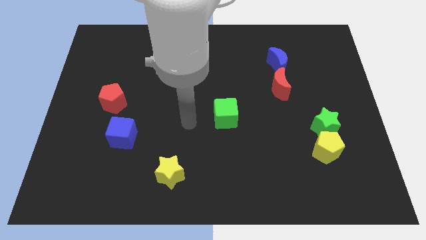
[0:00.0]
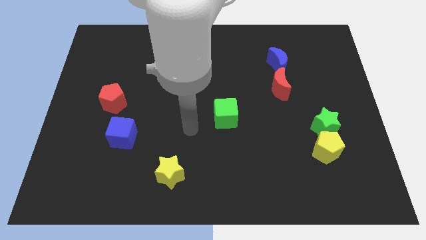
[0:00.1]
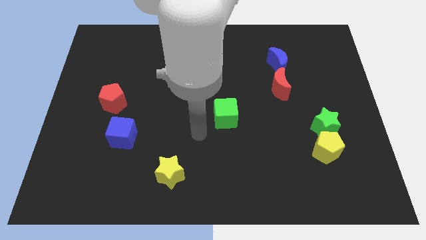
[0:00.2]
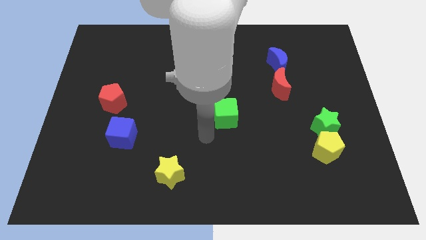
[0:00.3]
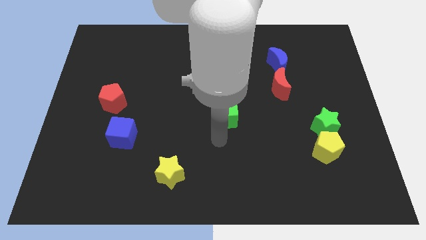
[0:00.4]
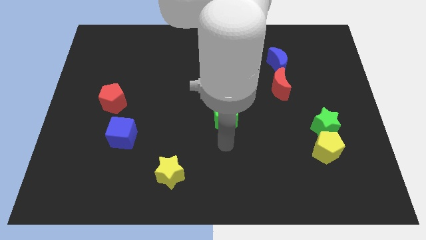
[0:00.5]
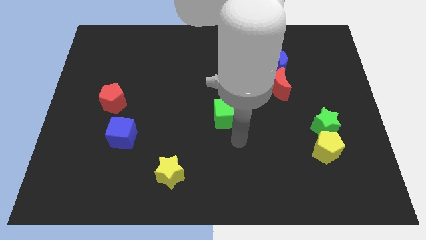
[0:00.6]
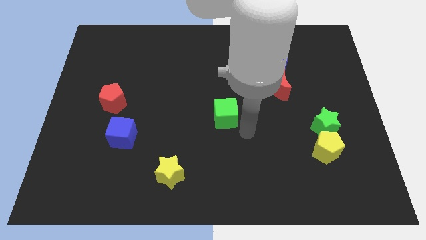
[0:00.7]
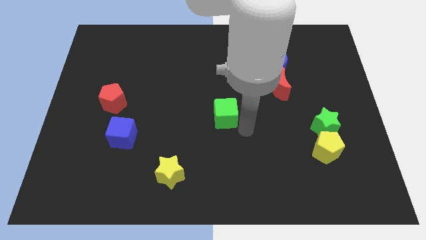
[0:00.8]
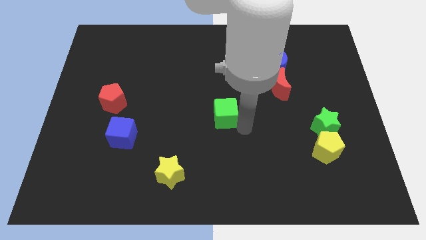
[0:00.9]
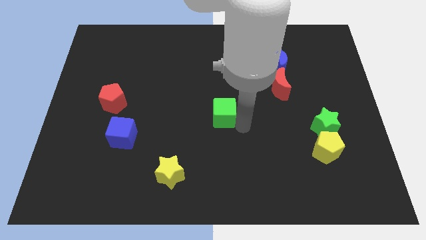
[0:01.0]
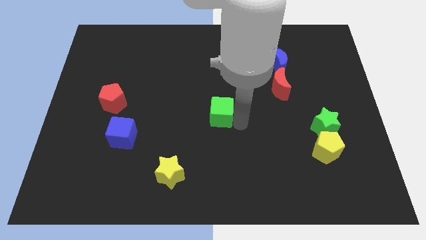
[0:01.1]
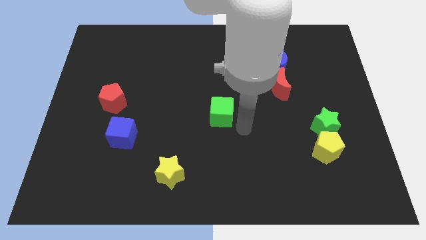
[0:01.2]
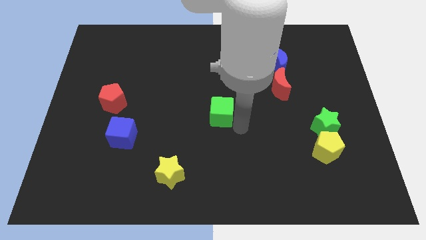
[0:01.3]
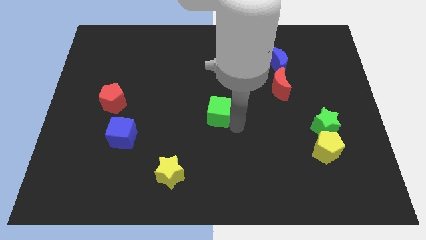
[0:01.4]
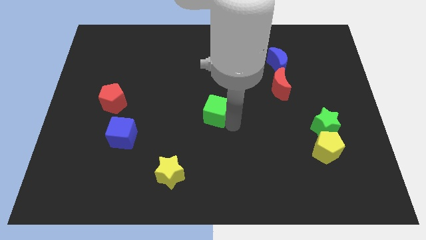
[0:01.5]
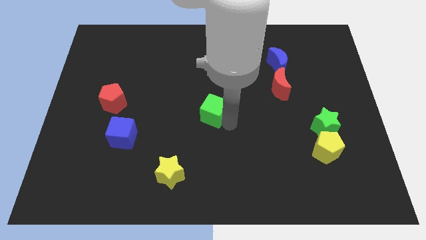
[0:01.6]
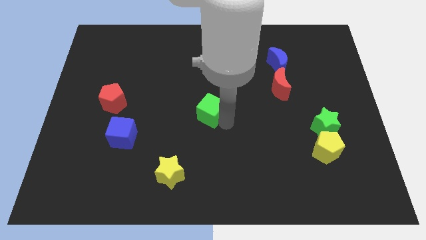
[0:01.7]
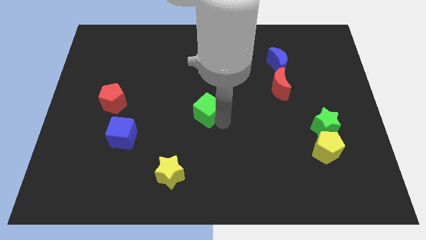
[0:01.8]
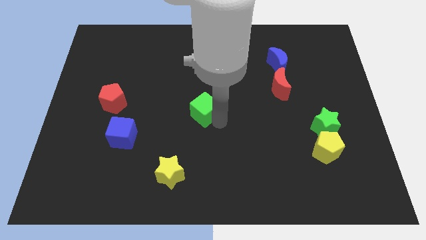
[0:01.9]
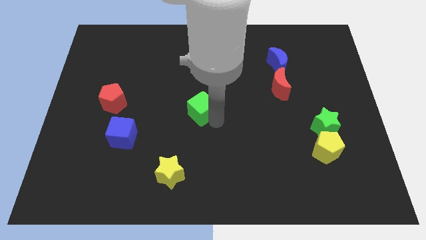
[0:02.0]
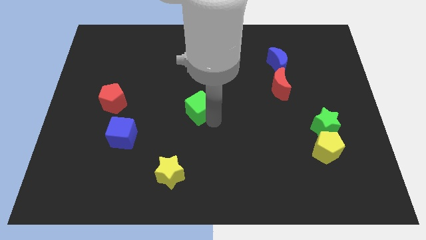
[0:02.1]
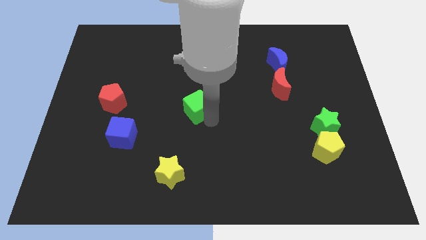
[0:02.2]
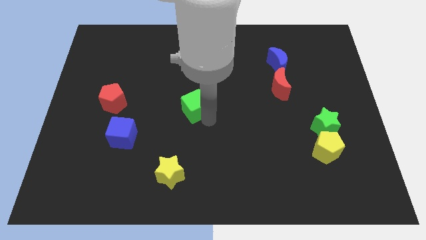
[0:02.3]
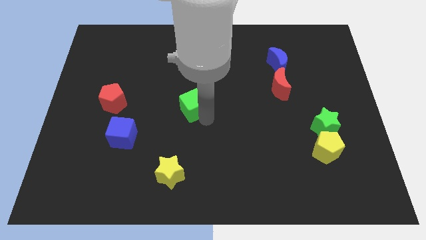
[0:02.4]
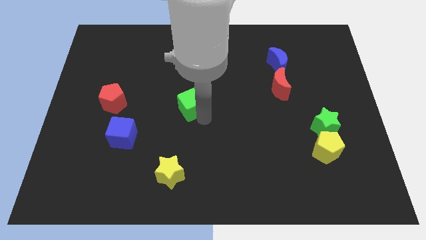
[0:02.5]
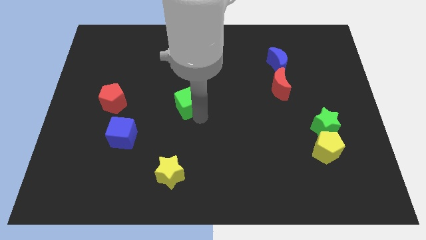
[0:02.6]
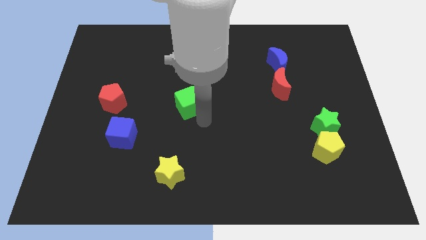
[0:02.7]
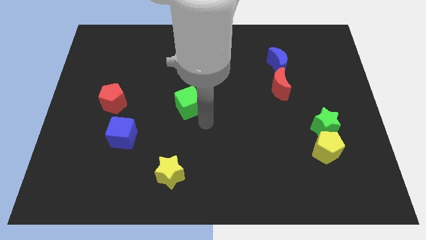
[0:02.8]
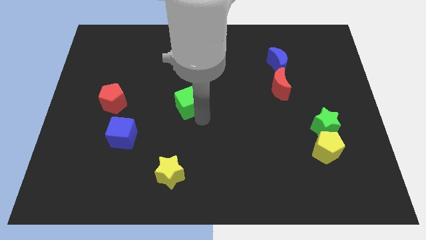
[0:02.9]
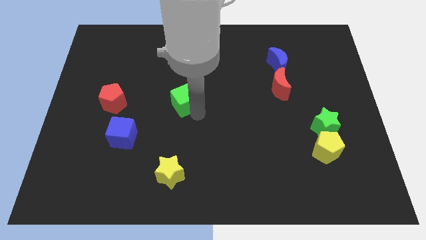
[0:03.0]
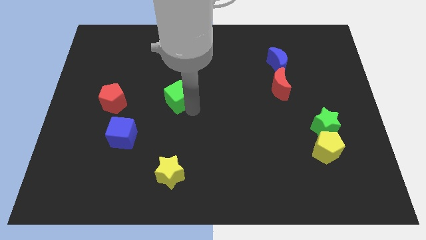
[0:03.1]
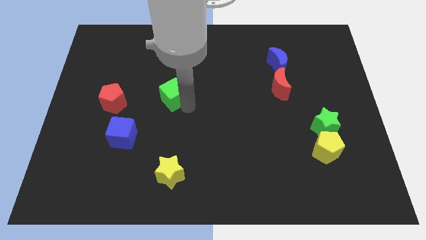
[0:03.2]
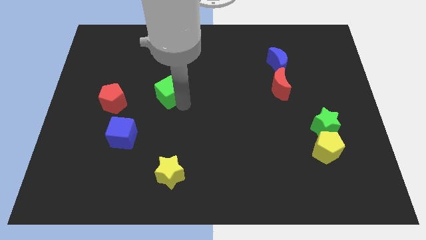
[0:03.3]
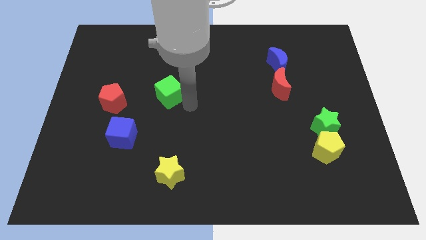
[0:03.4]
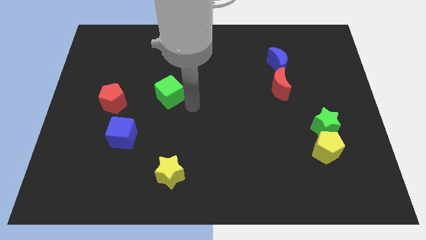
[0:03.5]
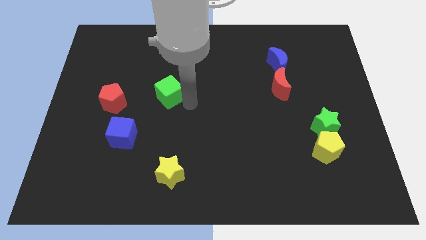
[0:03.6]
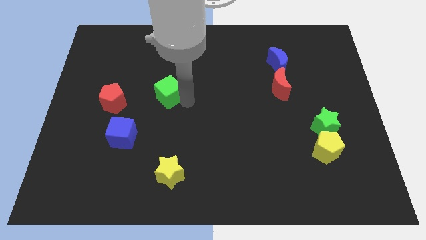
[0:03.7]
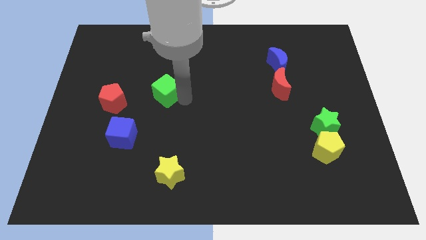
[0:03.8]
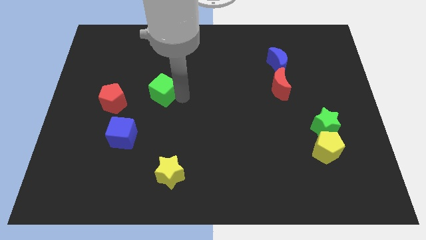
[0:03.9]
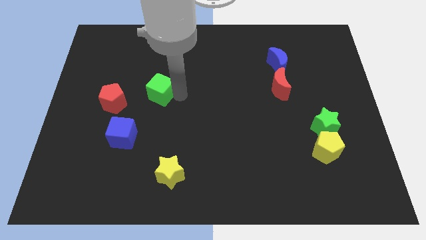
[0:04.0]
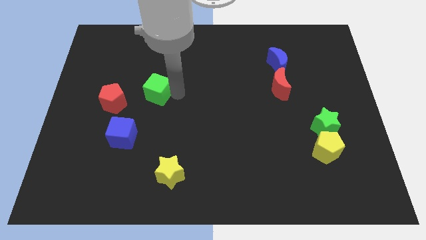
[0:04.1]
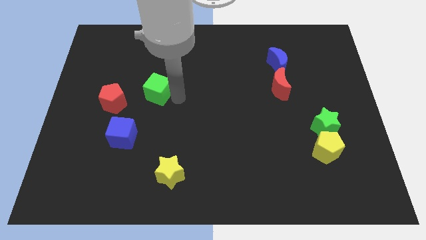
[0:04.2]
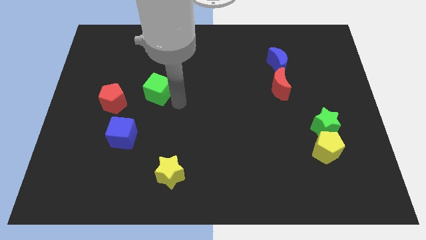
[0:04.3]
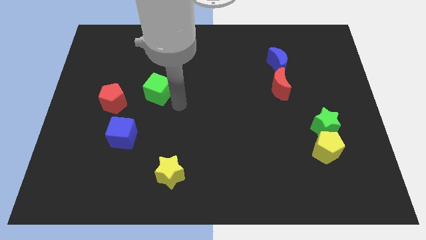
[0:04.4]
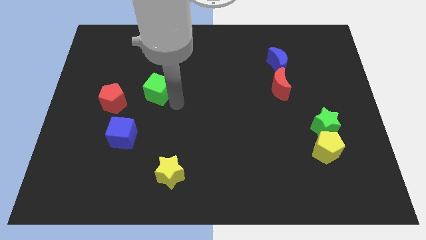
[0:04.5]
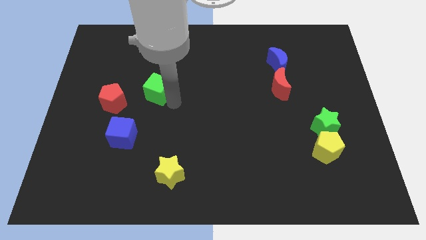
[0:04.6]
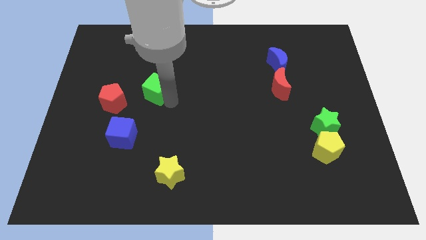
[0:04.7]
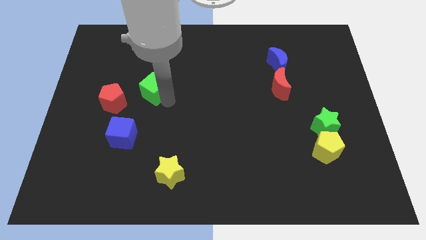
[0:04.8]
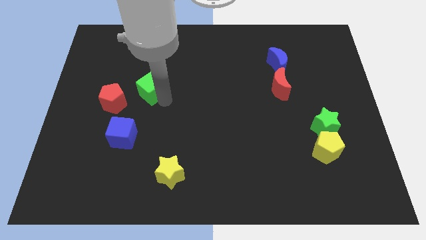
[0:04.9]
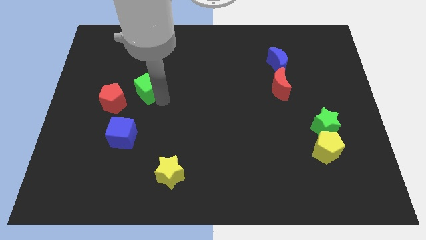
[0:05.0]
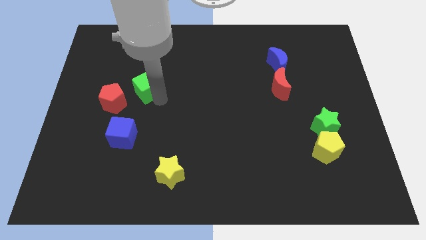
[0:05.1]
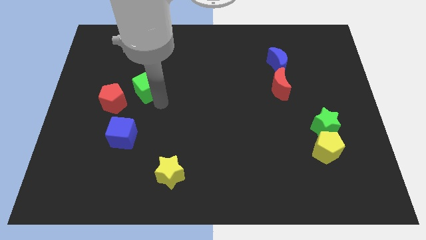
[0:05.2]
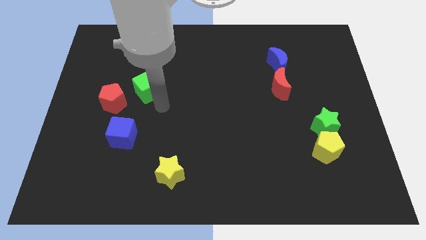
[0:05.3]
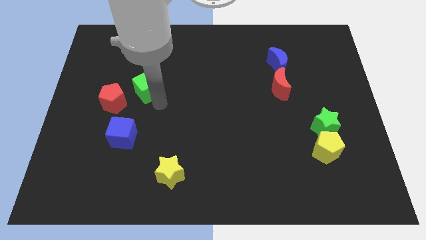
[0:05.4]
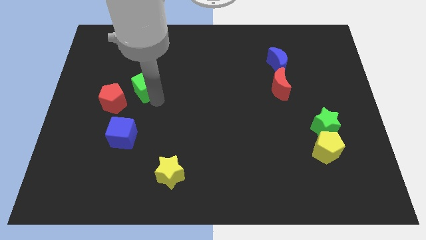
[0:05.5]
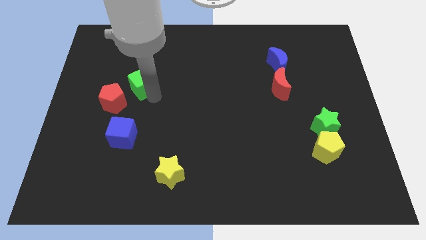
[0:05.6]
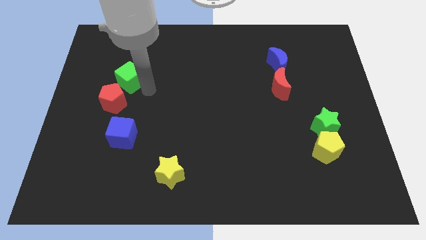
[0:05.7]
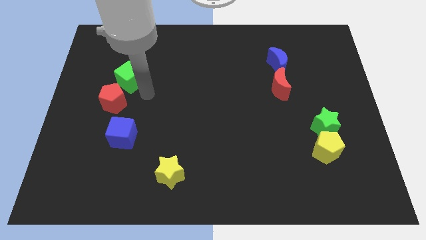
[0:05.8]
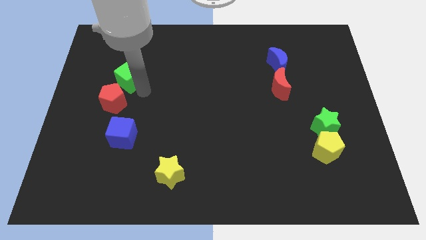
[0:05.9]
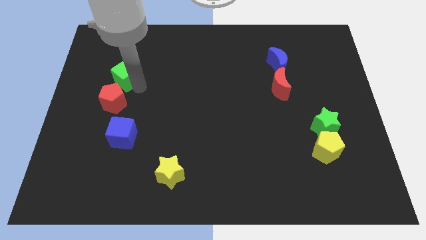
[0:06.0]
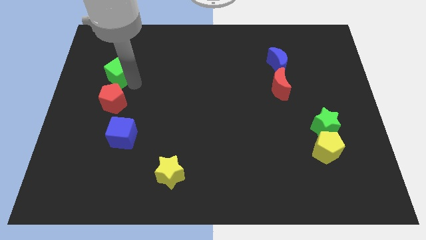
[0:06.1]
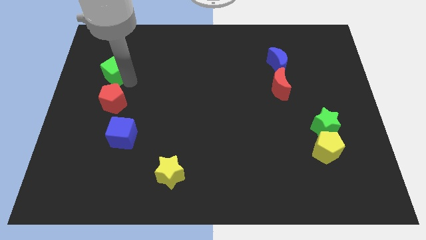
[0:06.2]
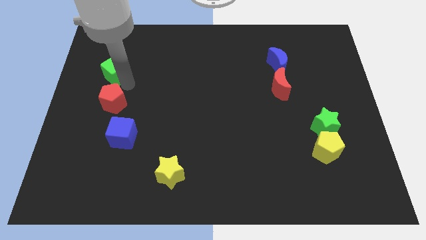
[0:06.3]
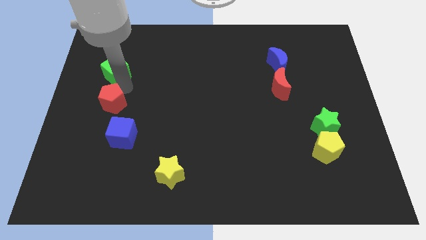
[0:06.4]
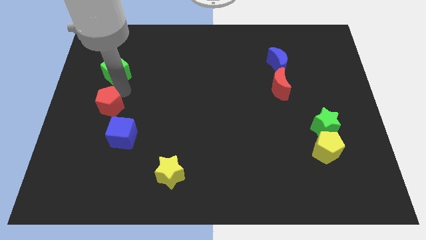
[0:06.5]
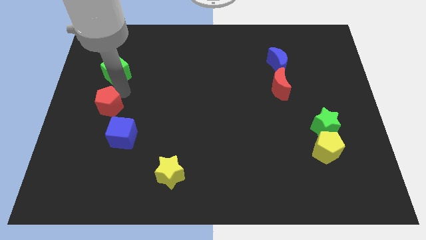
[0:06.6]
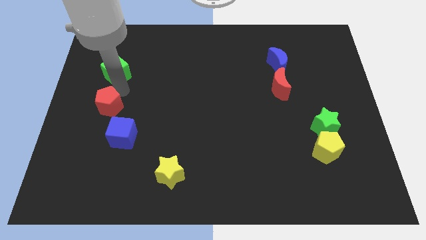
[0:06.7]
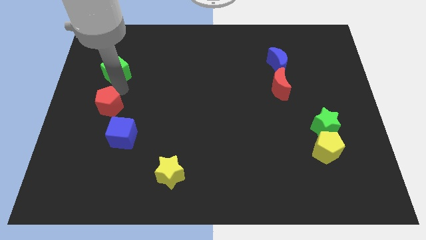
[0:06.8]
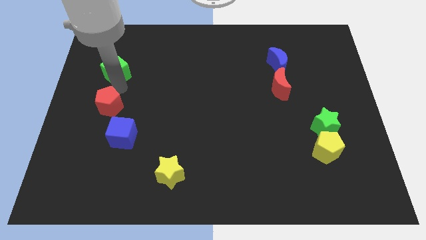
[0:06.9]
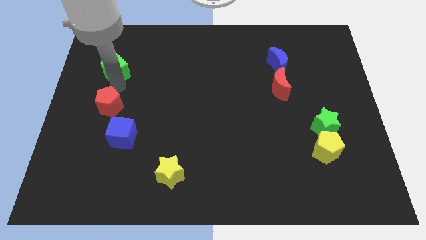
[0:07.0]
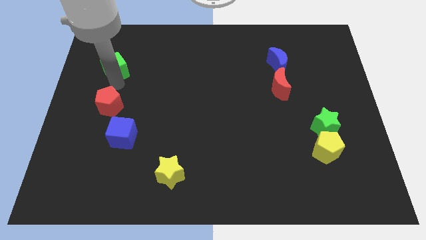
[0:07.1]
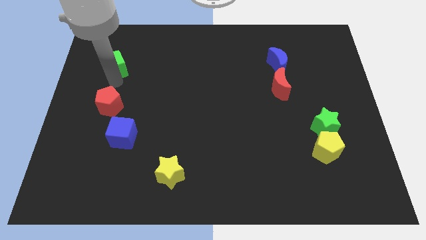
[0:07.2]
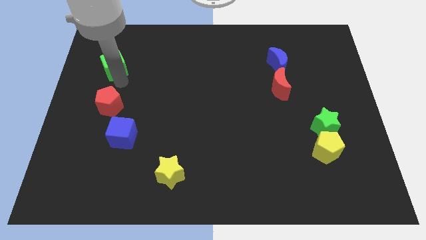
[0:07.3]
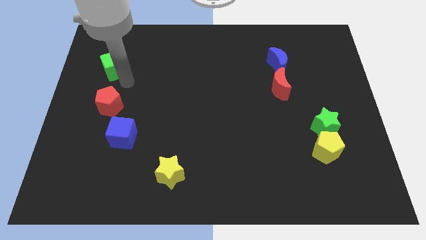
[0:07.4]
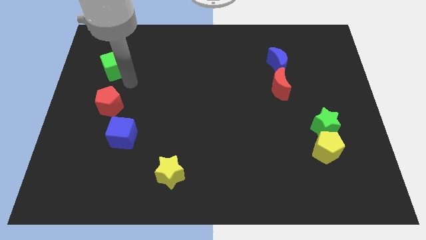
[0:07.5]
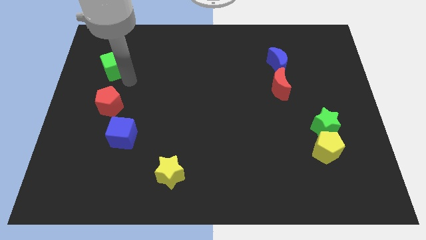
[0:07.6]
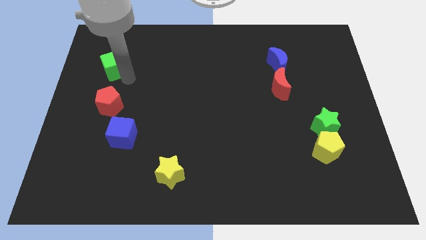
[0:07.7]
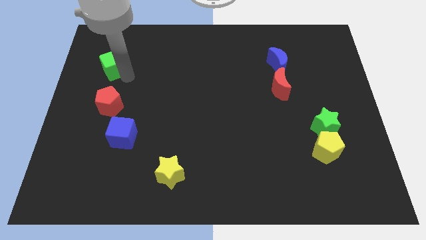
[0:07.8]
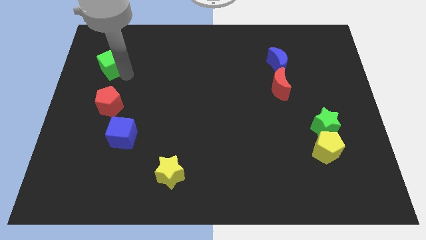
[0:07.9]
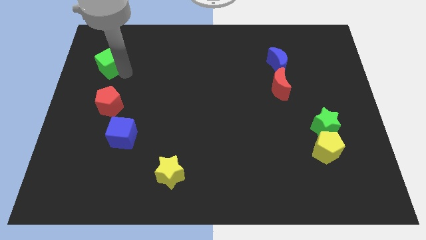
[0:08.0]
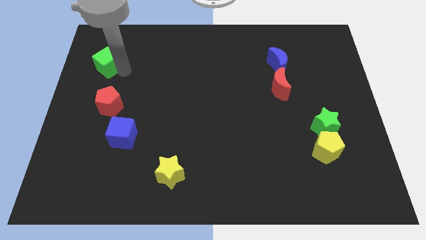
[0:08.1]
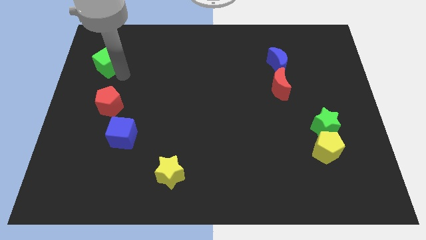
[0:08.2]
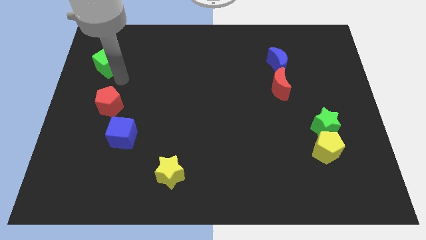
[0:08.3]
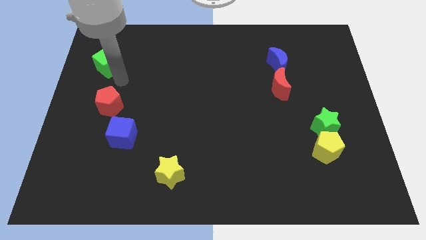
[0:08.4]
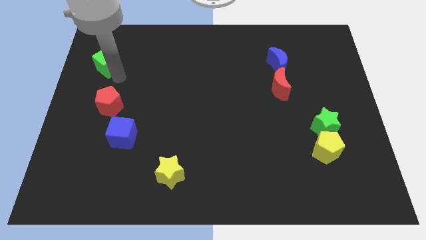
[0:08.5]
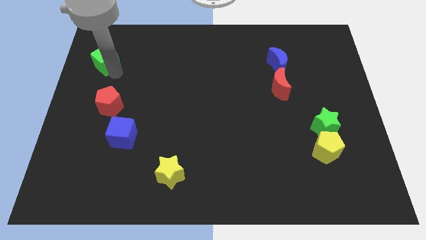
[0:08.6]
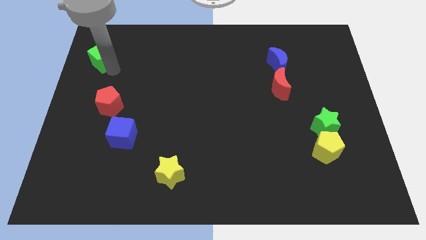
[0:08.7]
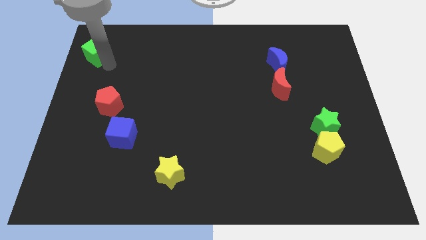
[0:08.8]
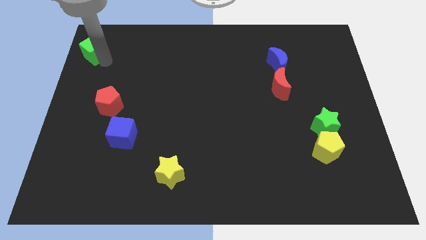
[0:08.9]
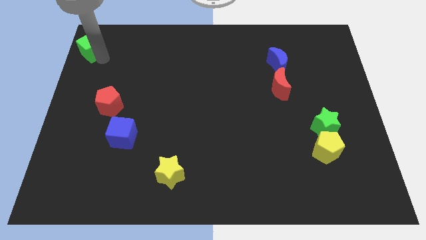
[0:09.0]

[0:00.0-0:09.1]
put the green cube to the top left corner
